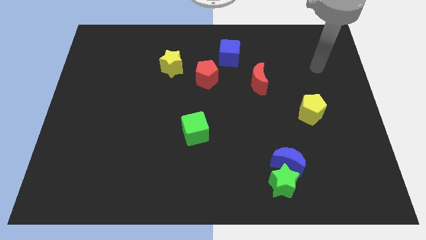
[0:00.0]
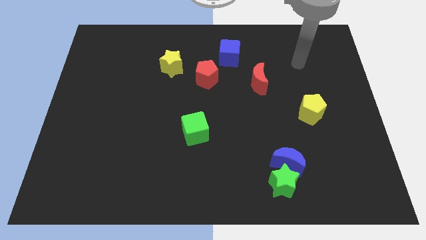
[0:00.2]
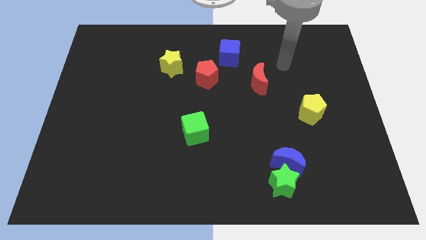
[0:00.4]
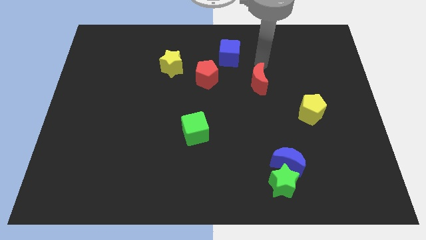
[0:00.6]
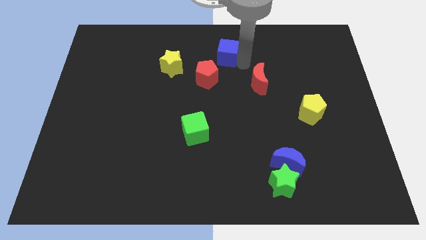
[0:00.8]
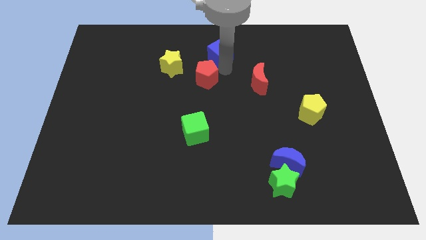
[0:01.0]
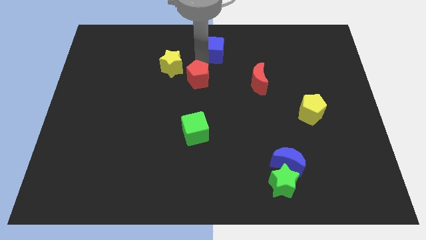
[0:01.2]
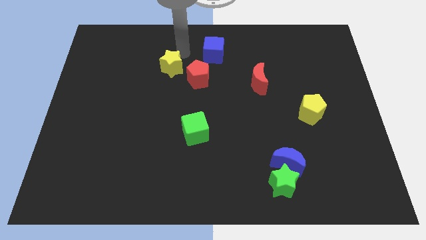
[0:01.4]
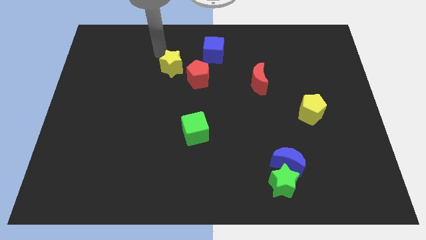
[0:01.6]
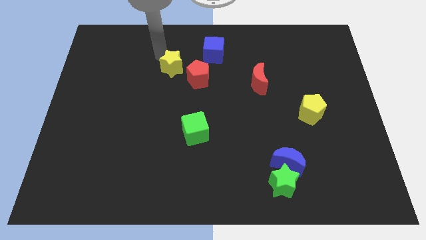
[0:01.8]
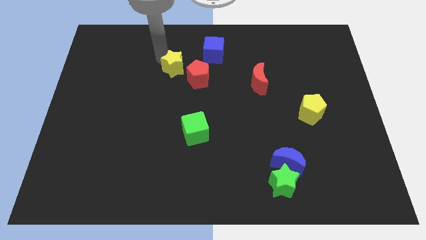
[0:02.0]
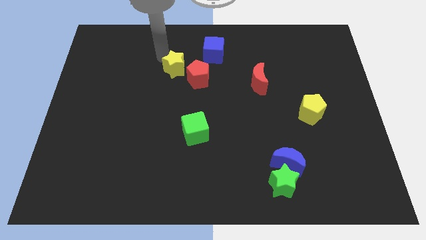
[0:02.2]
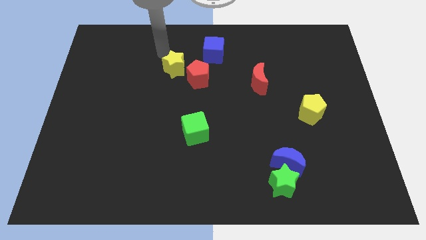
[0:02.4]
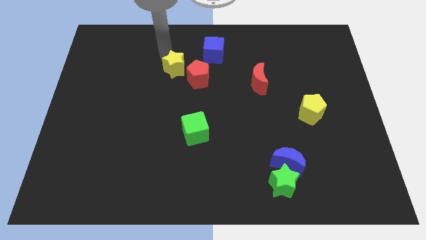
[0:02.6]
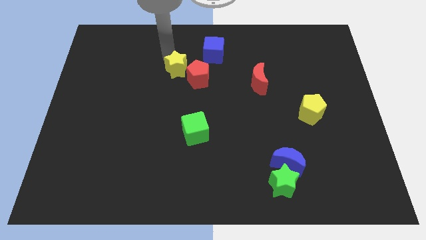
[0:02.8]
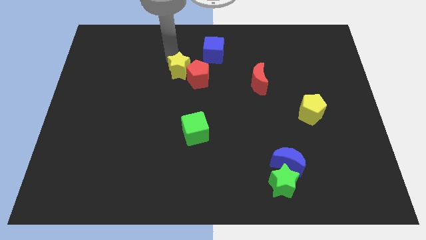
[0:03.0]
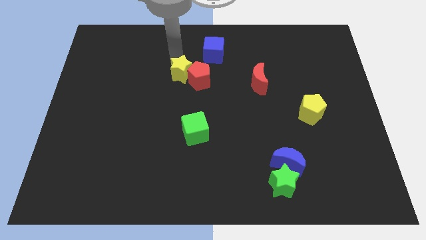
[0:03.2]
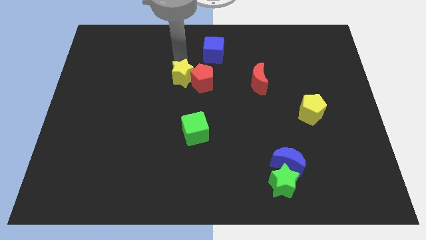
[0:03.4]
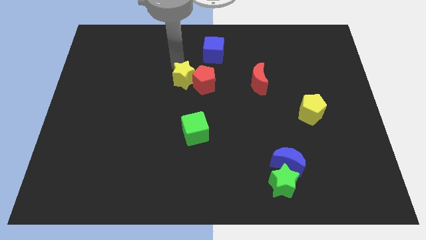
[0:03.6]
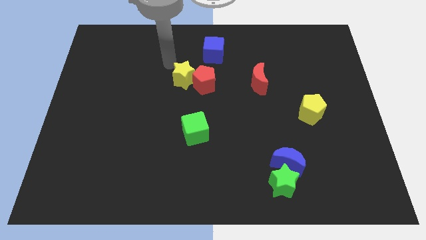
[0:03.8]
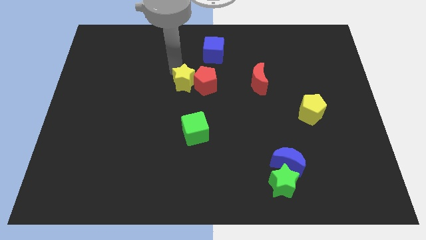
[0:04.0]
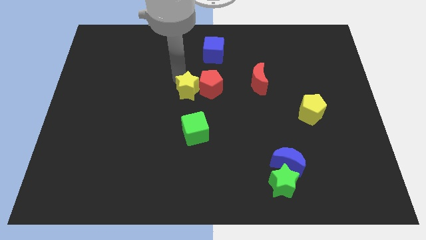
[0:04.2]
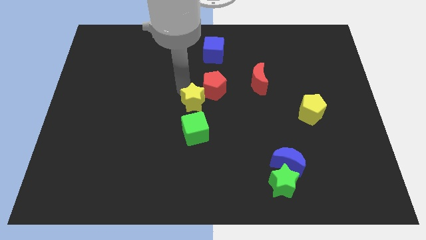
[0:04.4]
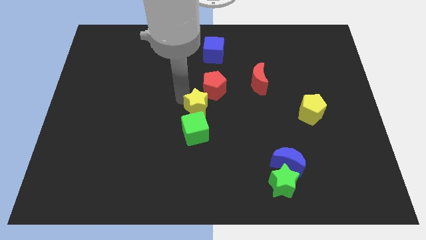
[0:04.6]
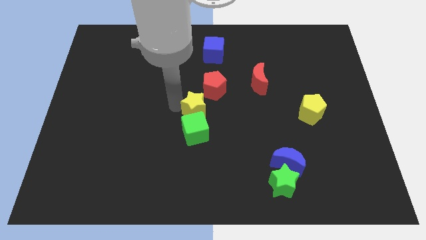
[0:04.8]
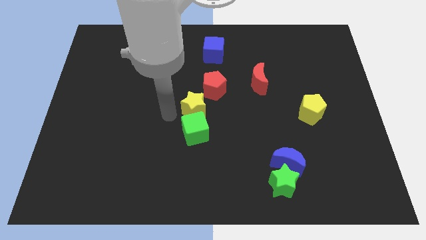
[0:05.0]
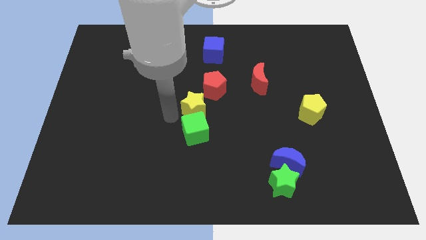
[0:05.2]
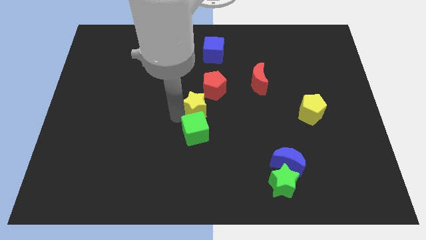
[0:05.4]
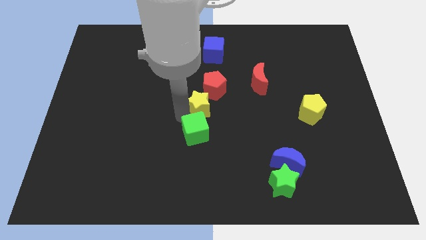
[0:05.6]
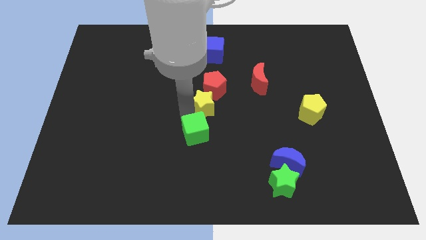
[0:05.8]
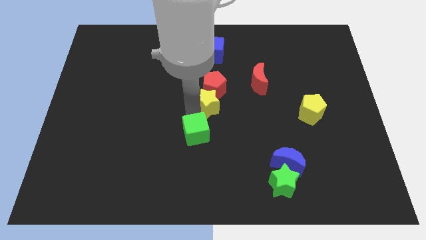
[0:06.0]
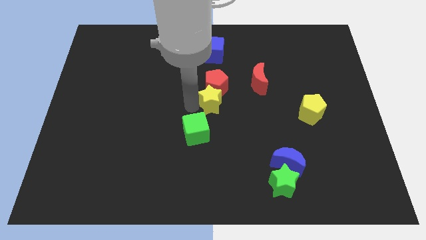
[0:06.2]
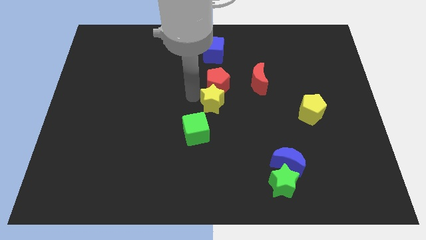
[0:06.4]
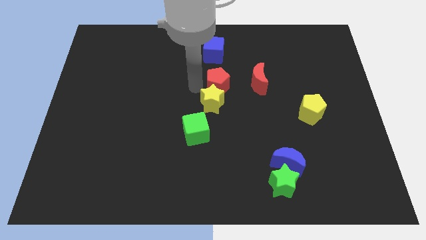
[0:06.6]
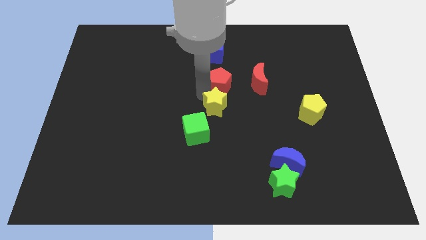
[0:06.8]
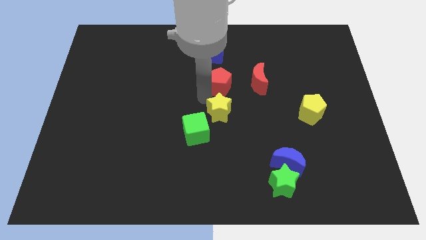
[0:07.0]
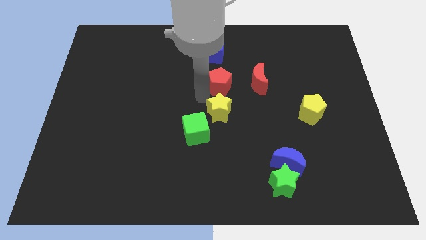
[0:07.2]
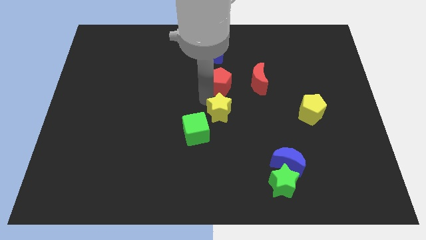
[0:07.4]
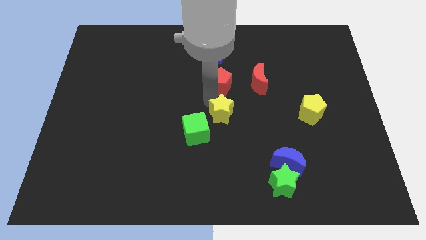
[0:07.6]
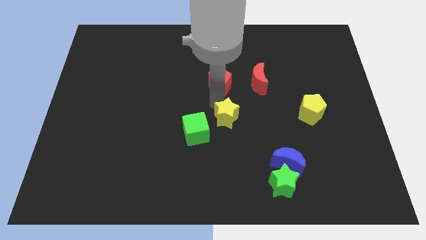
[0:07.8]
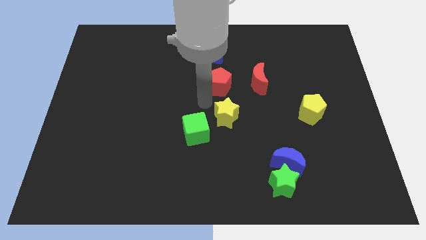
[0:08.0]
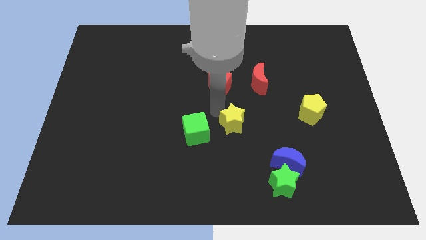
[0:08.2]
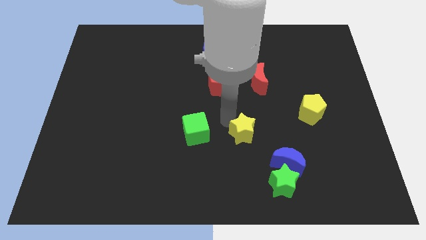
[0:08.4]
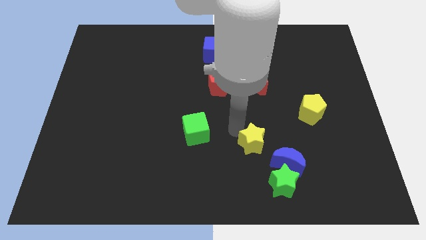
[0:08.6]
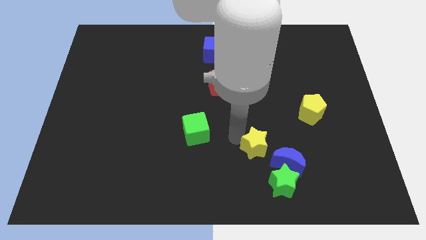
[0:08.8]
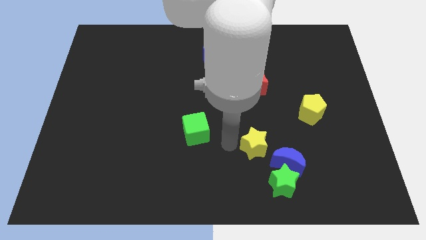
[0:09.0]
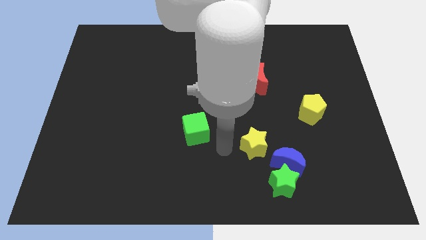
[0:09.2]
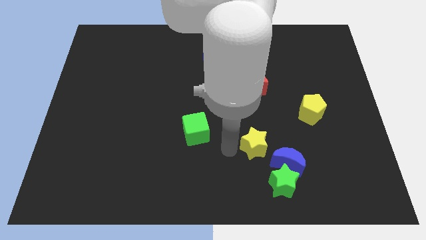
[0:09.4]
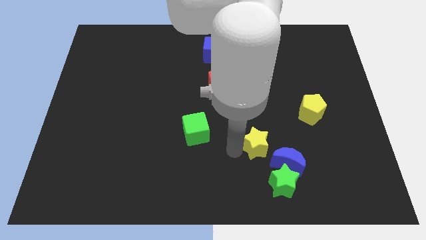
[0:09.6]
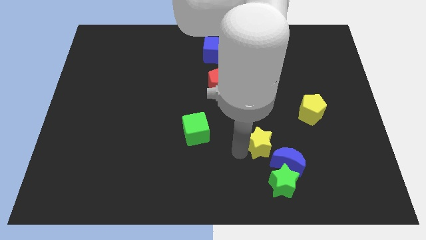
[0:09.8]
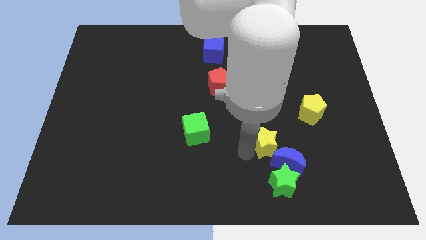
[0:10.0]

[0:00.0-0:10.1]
push the yellow star towards the blue moon

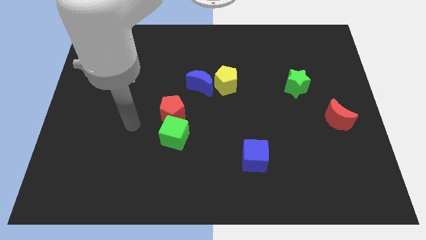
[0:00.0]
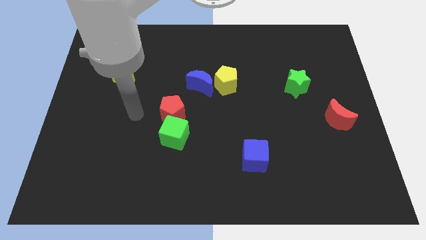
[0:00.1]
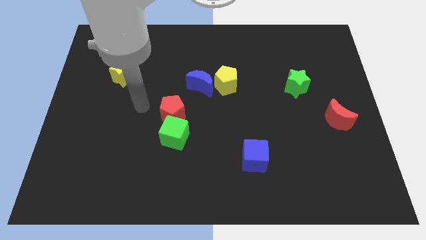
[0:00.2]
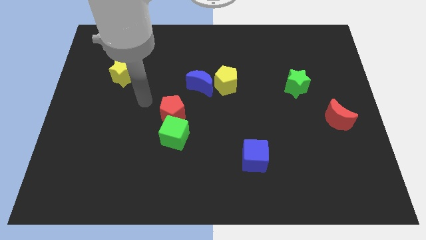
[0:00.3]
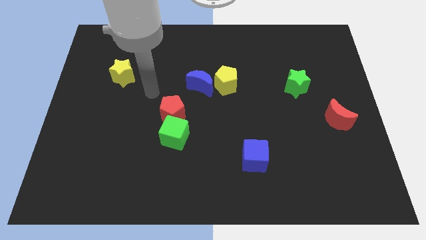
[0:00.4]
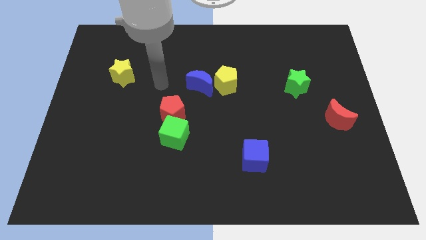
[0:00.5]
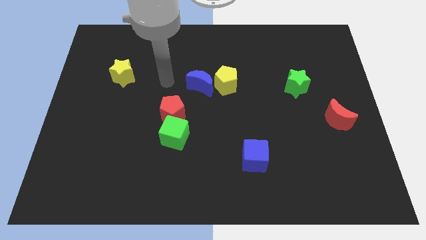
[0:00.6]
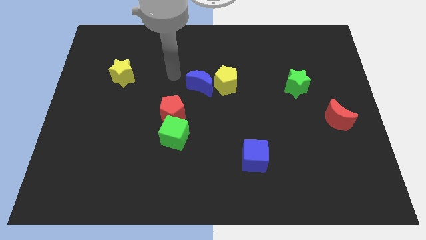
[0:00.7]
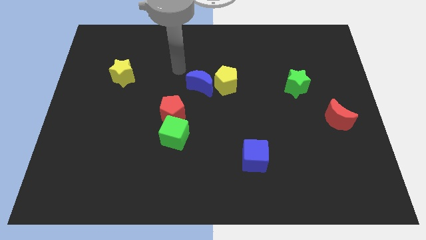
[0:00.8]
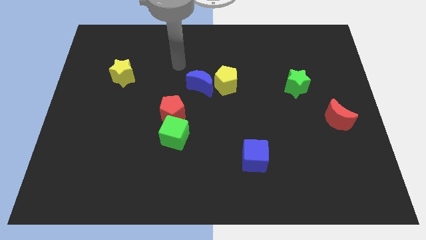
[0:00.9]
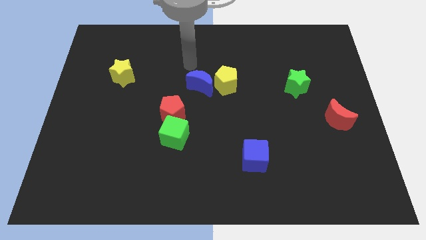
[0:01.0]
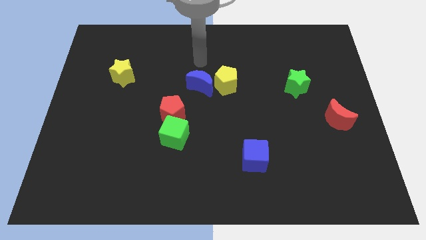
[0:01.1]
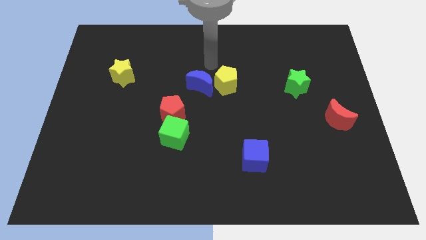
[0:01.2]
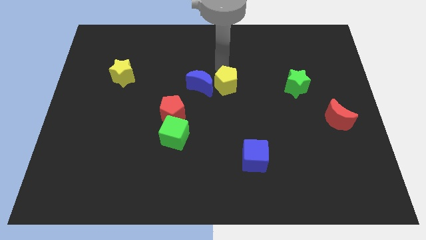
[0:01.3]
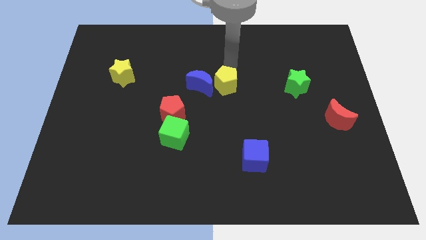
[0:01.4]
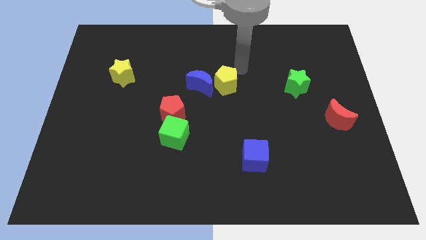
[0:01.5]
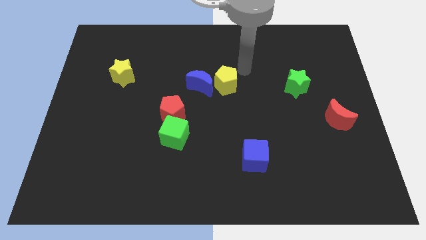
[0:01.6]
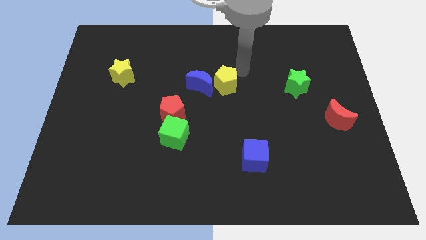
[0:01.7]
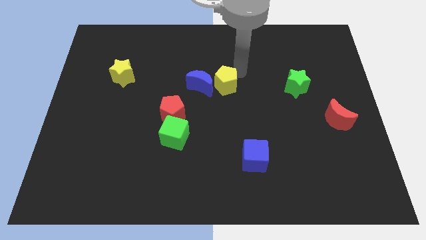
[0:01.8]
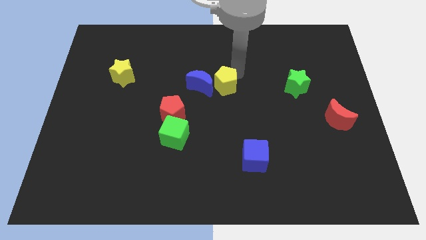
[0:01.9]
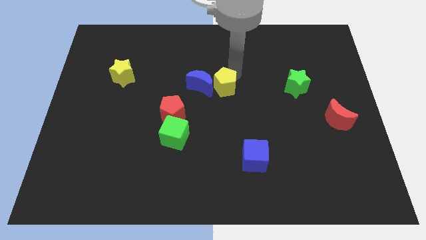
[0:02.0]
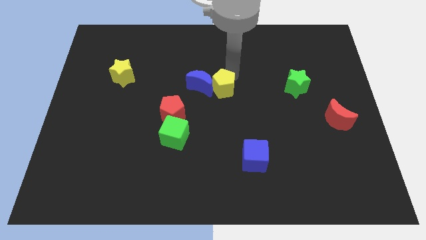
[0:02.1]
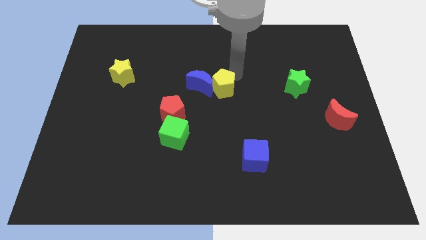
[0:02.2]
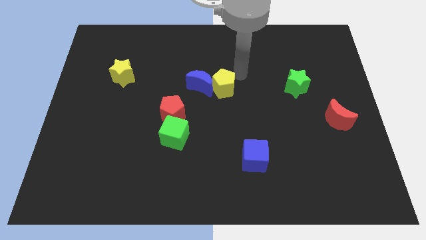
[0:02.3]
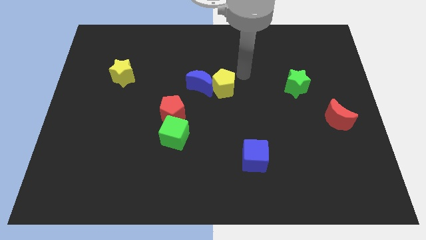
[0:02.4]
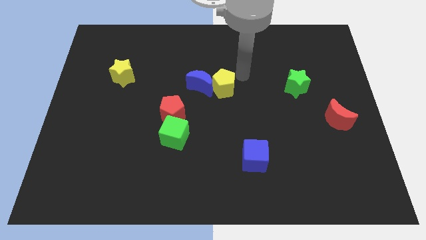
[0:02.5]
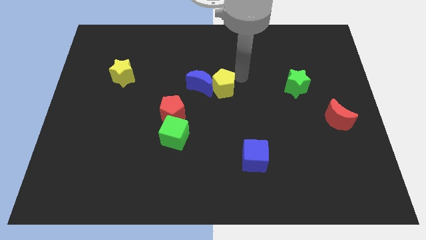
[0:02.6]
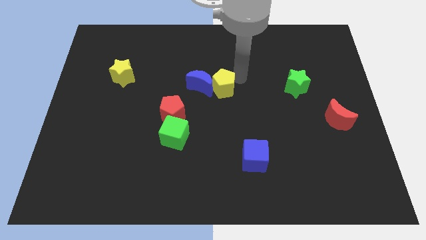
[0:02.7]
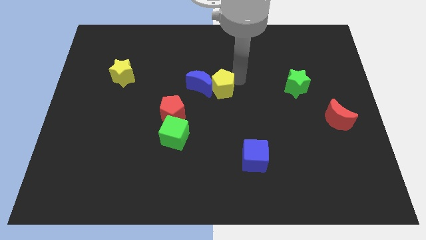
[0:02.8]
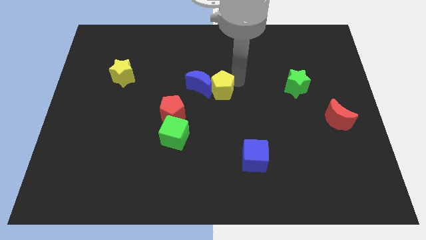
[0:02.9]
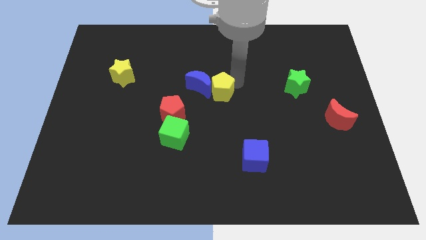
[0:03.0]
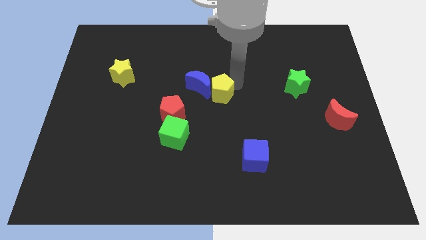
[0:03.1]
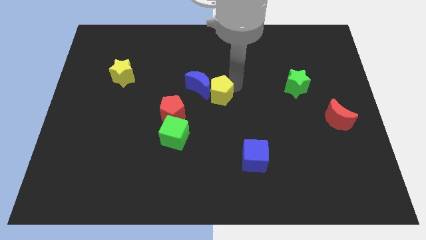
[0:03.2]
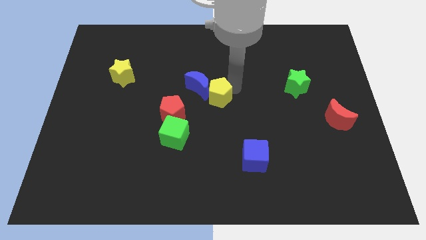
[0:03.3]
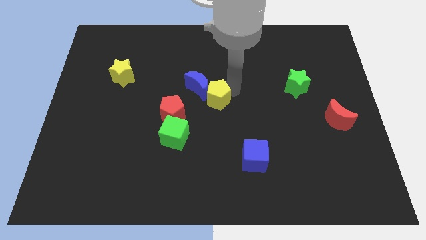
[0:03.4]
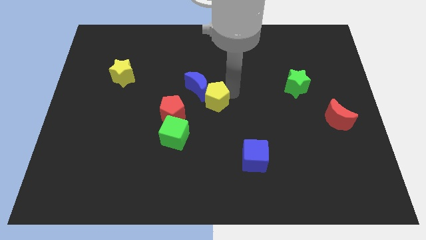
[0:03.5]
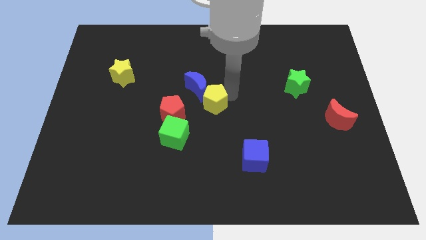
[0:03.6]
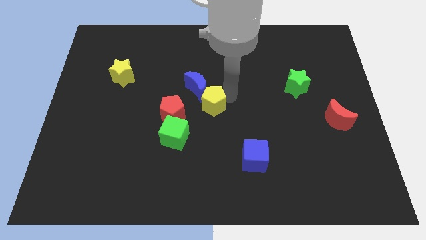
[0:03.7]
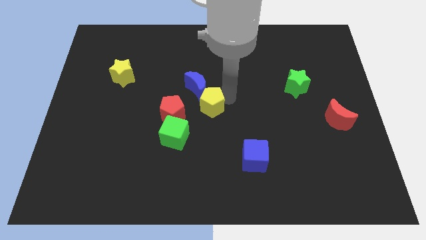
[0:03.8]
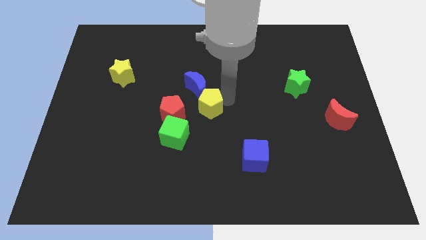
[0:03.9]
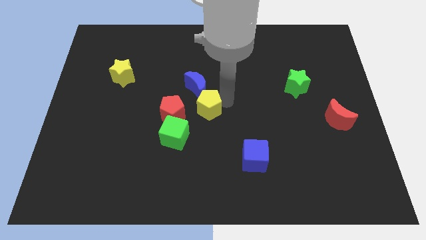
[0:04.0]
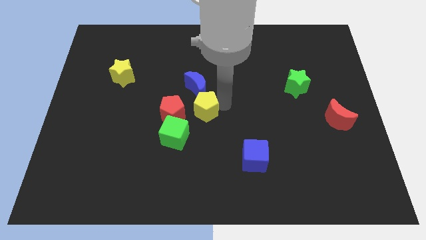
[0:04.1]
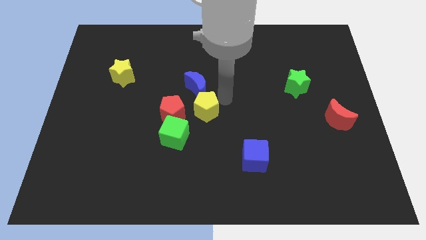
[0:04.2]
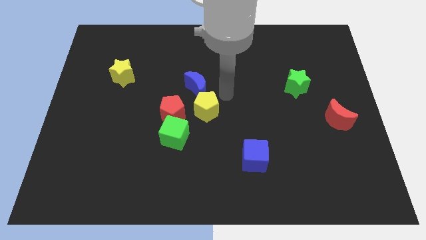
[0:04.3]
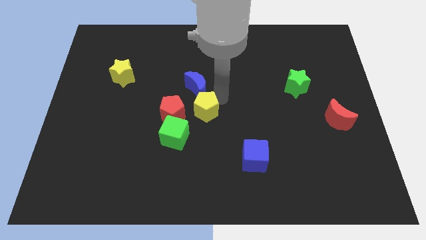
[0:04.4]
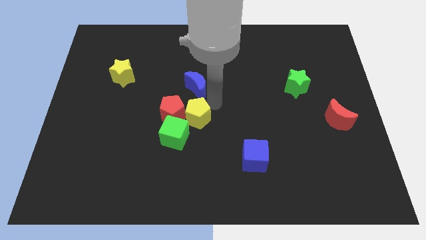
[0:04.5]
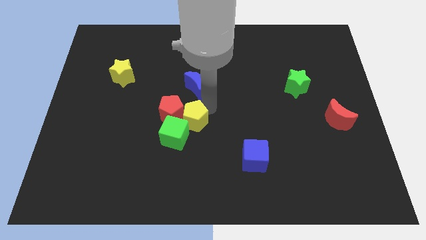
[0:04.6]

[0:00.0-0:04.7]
put the yellow pentagon to the green cube
